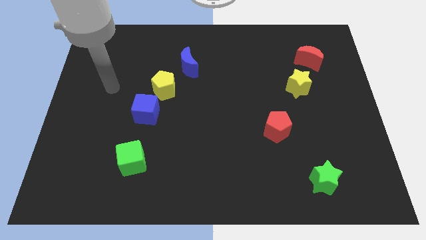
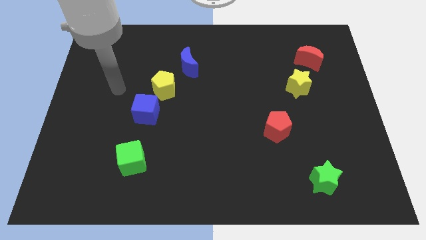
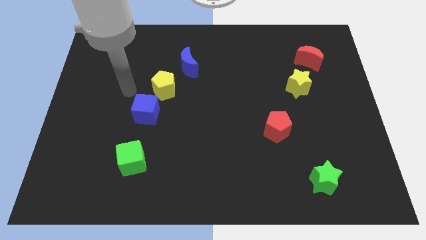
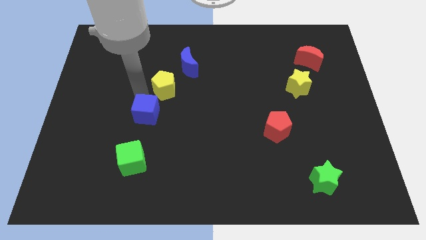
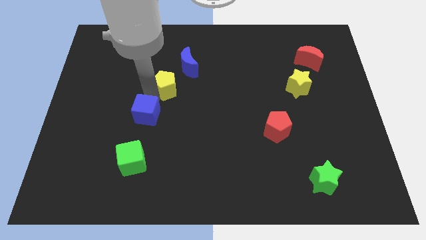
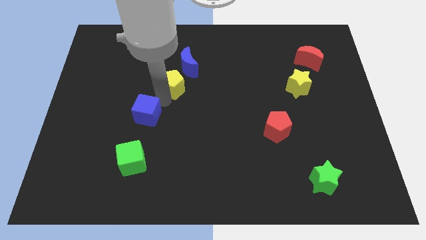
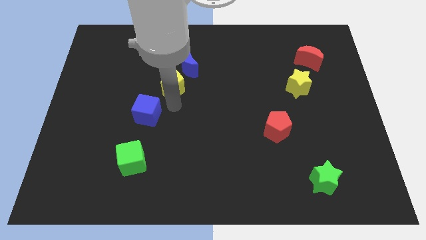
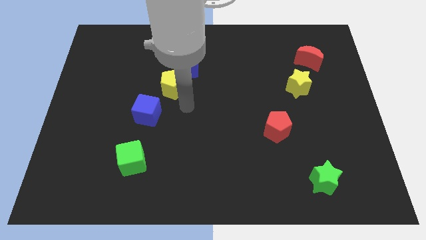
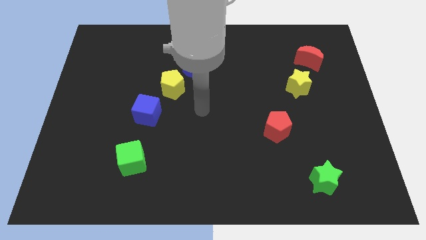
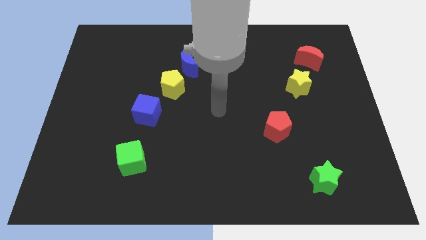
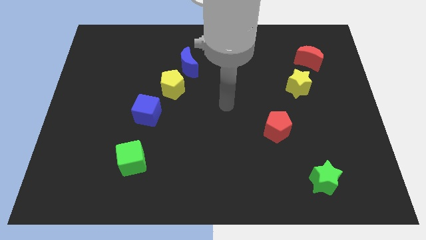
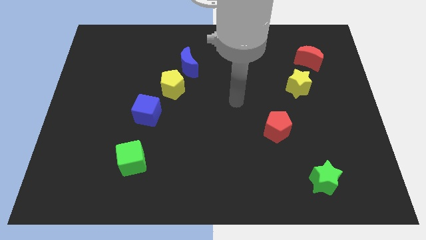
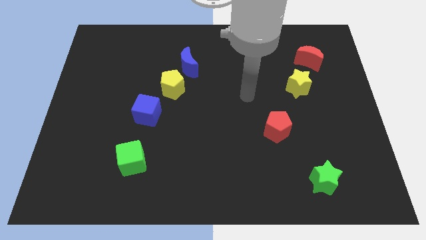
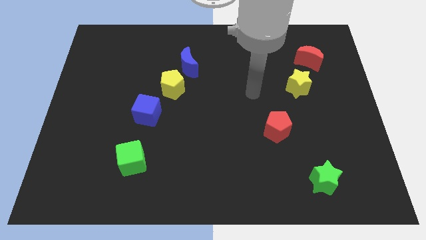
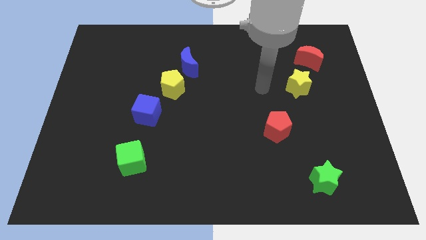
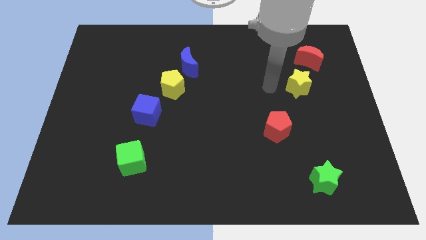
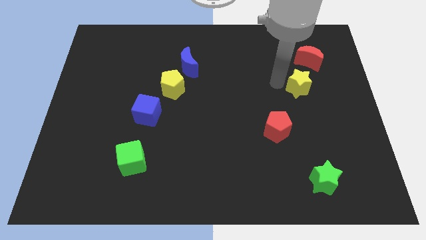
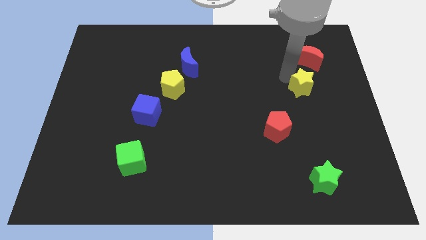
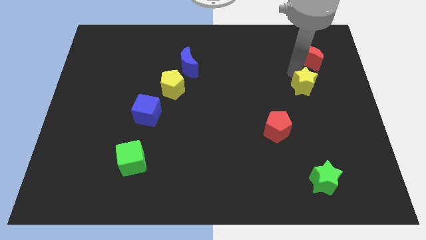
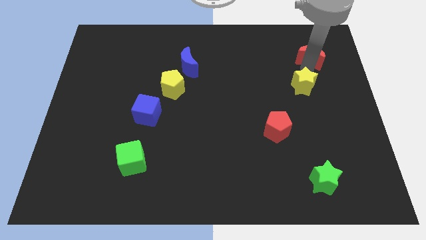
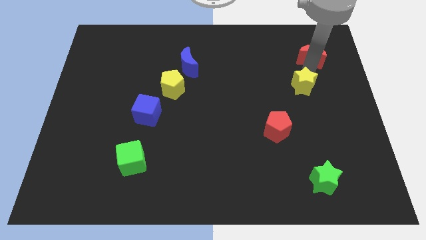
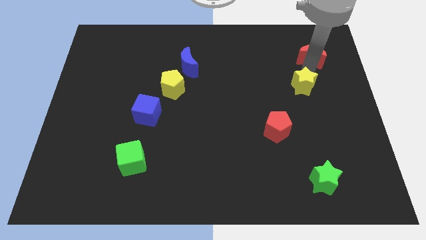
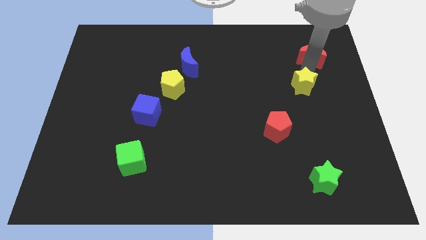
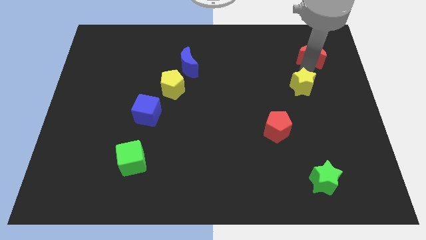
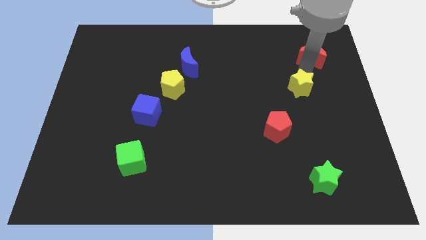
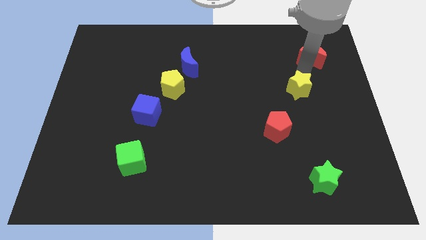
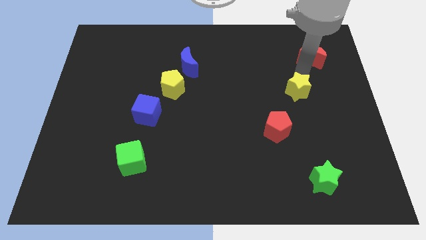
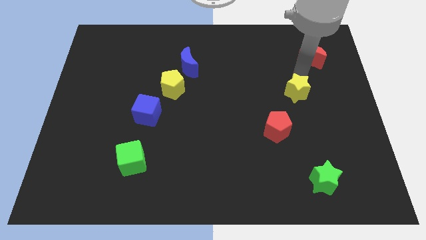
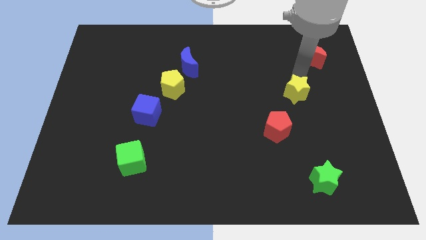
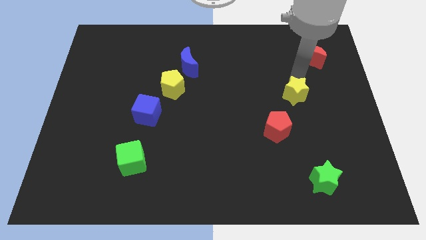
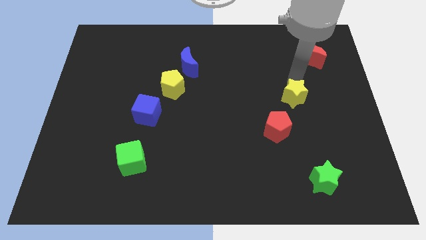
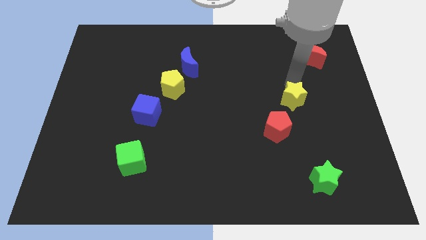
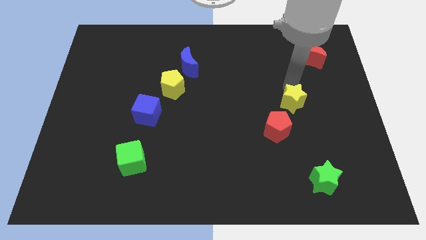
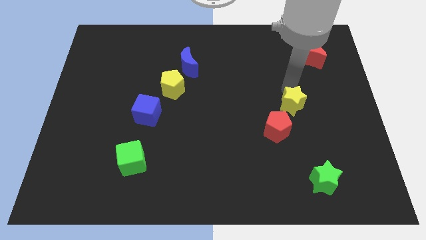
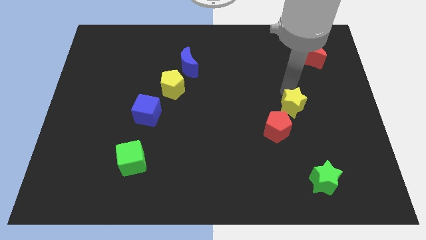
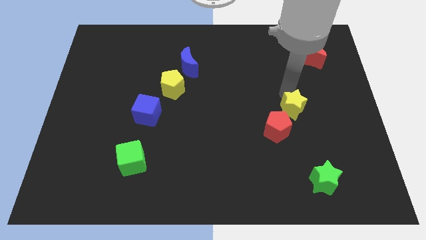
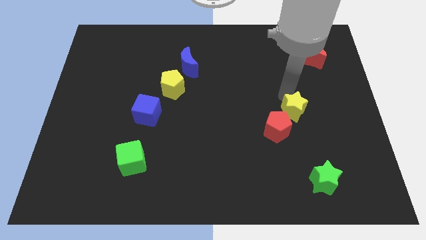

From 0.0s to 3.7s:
slide the yellow star somewhat downwards

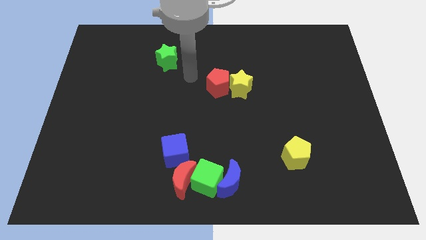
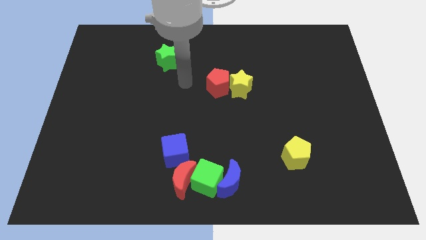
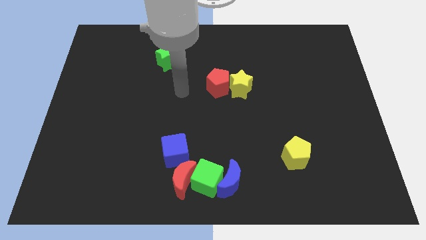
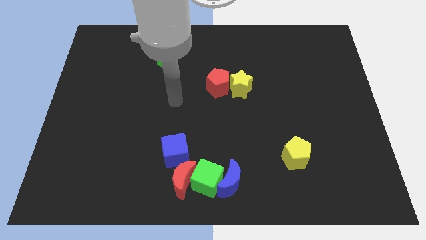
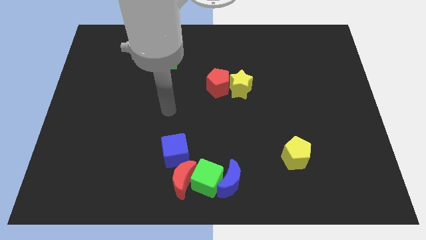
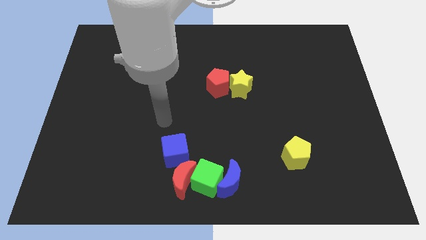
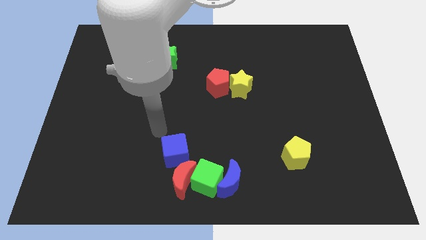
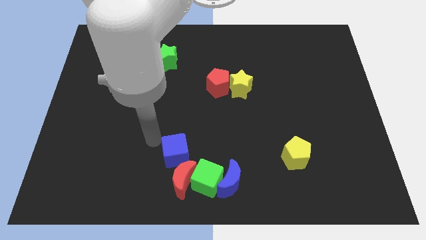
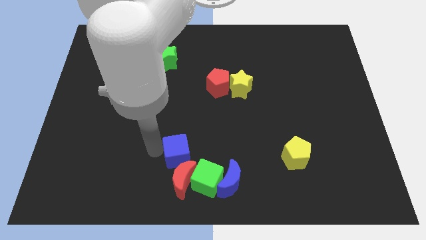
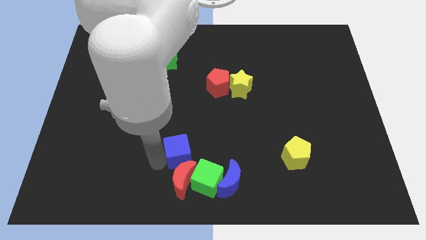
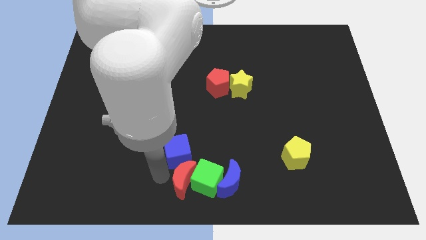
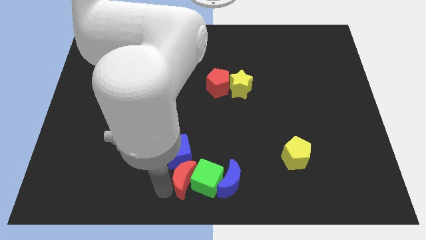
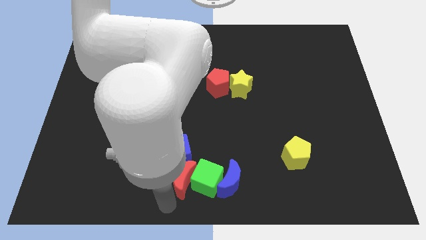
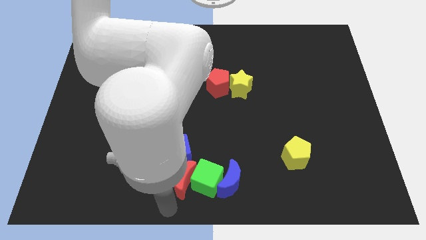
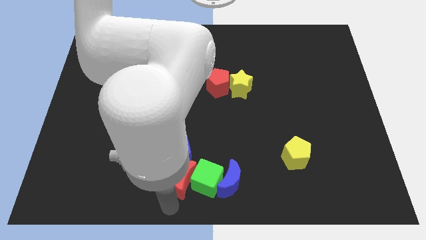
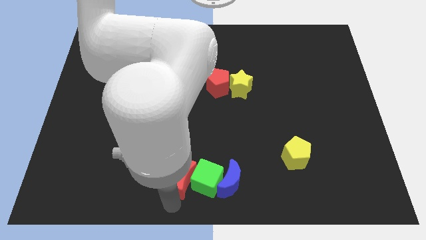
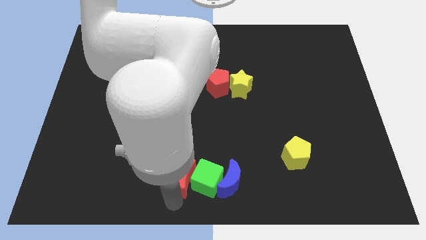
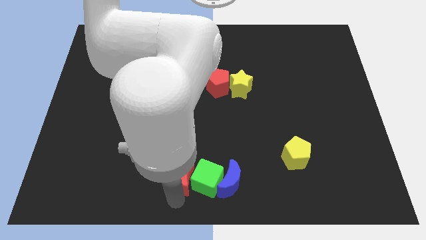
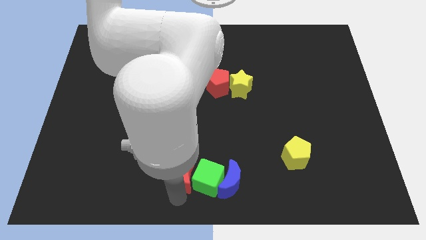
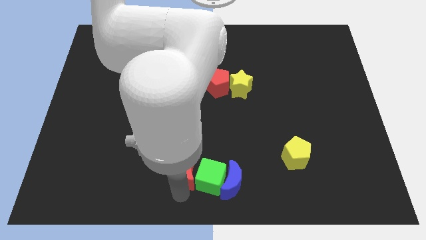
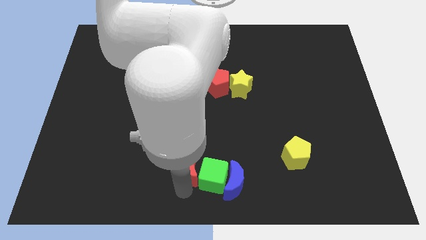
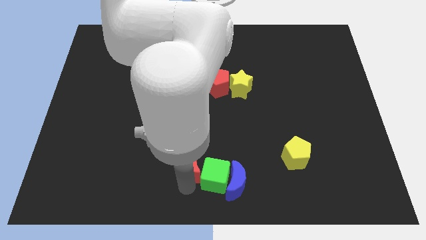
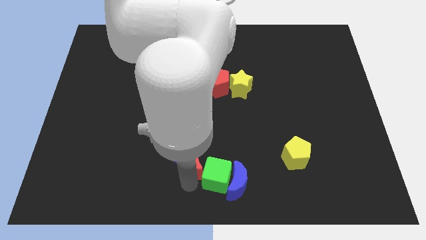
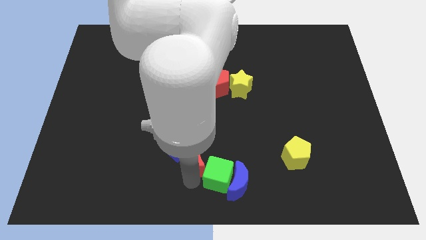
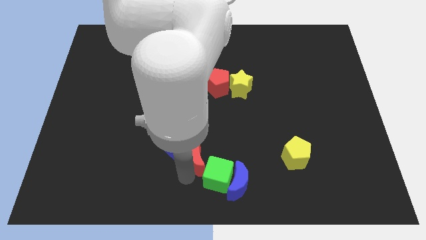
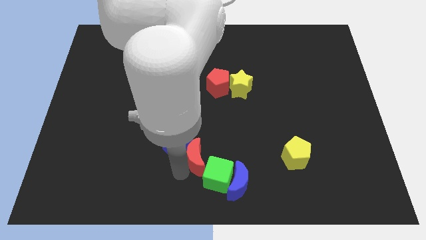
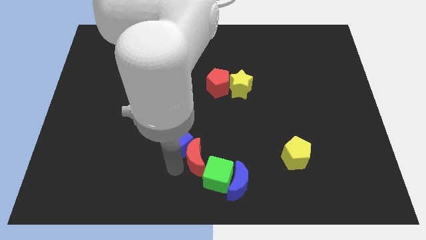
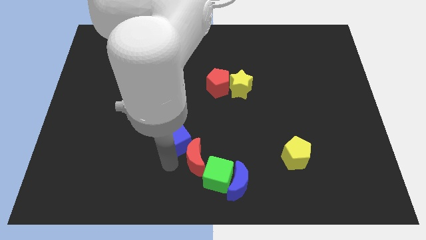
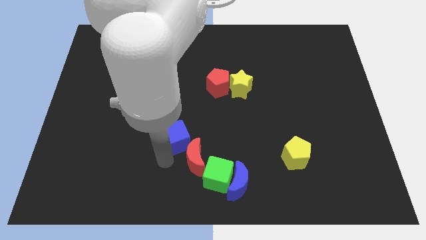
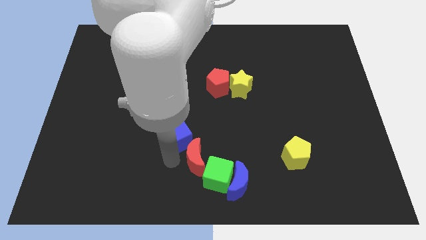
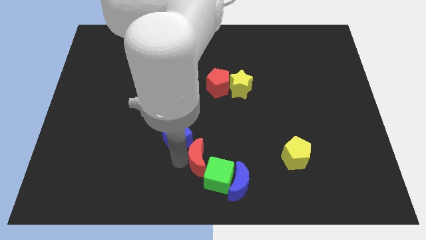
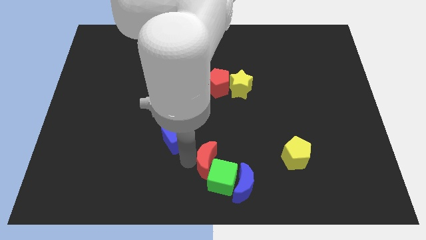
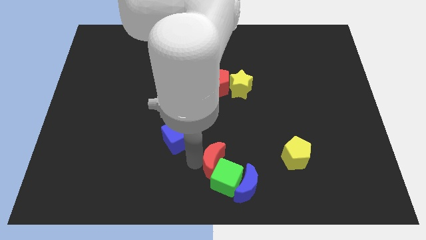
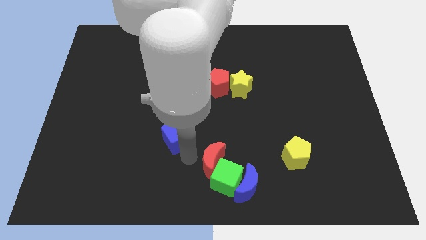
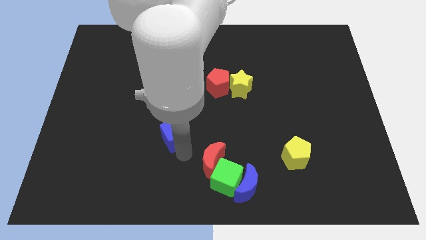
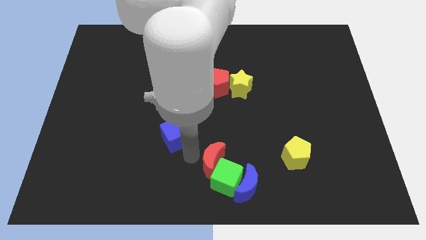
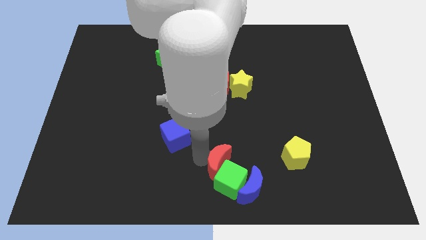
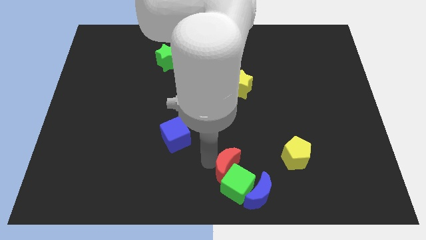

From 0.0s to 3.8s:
move the red moon to the right slightly

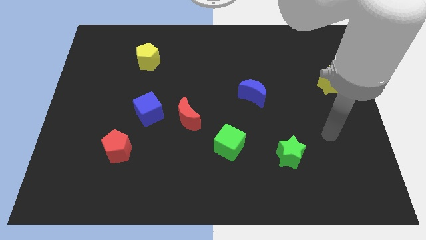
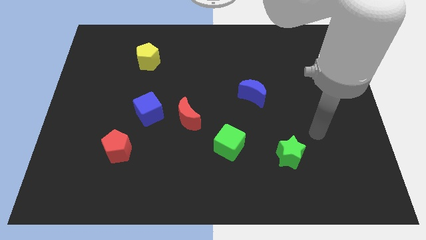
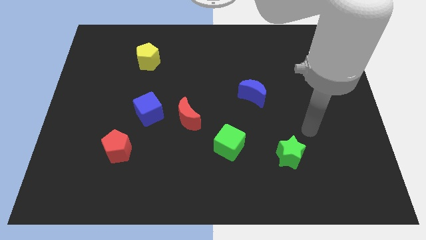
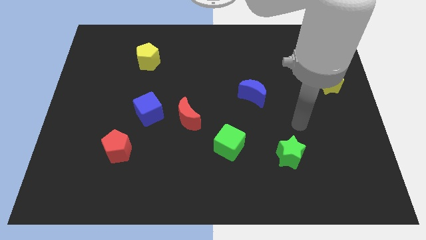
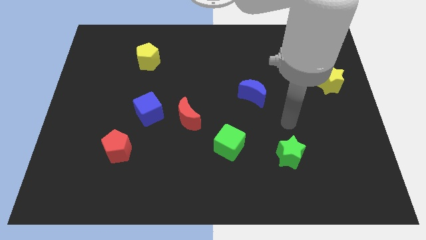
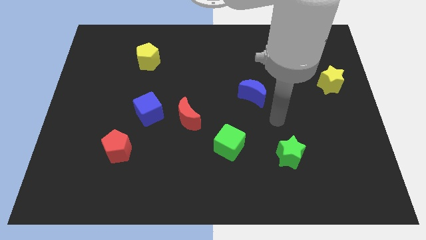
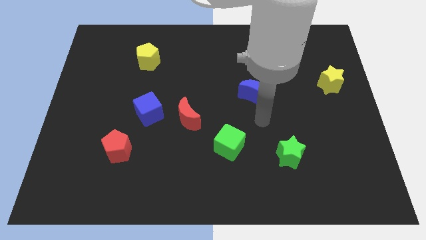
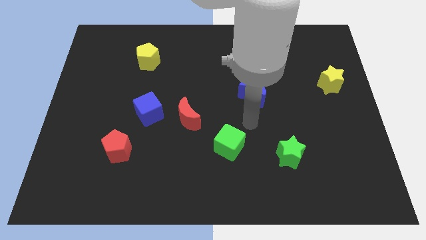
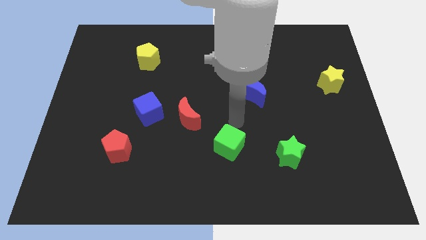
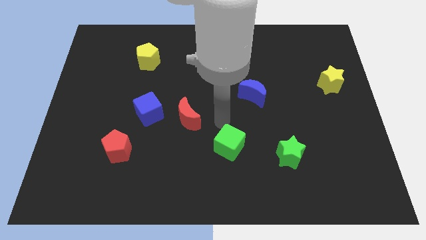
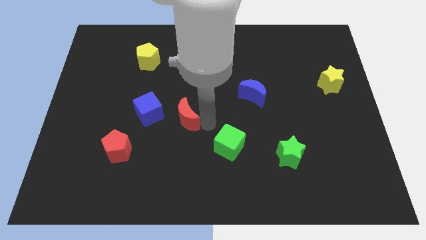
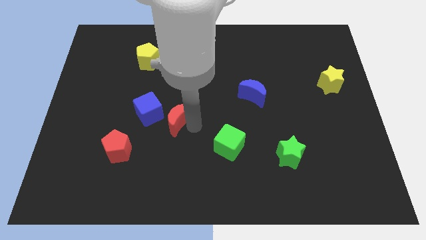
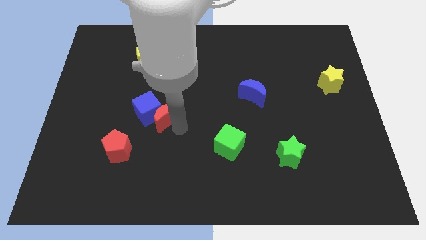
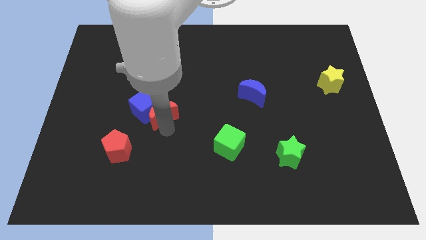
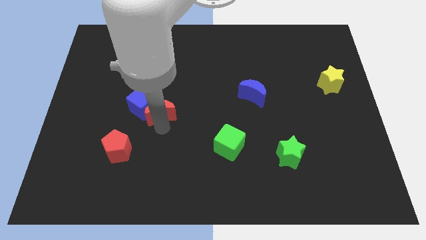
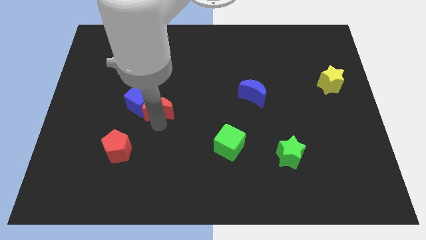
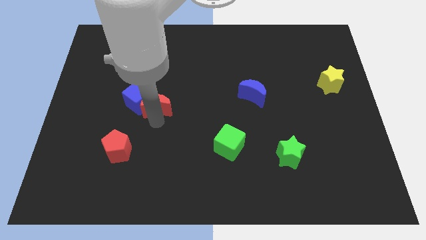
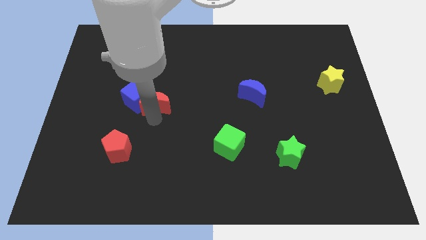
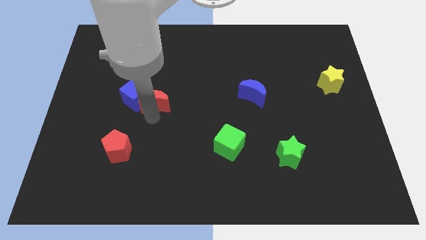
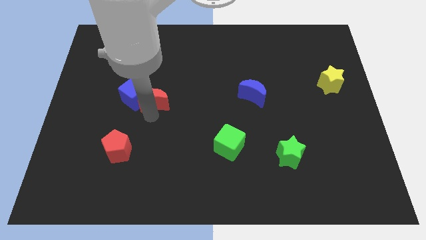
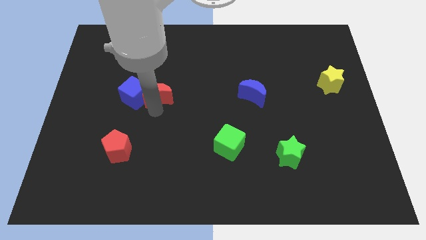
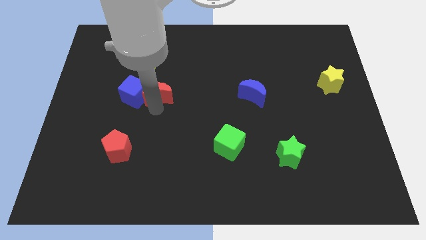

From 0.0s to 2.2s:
slide the blue cube somewhat up and then to the left
